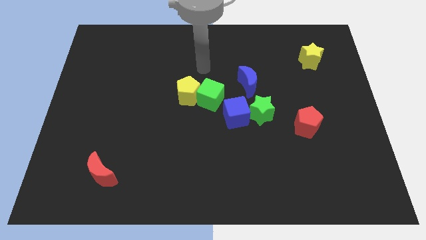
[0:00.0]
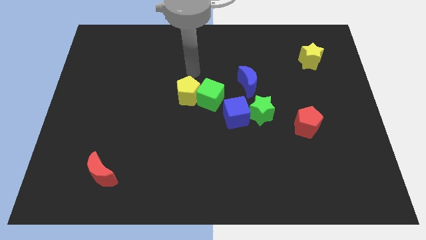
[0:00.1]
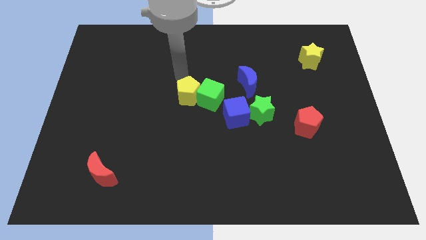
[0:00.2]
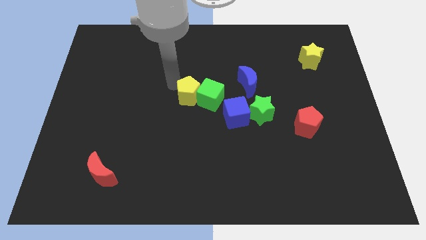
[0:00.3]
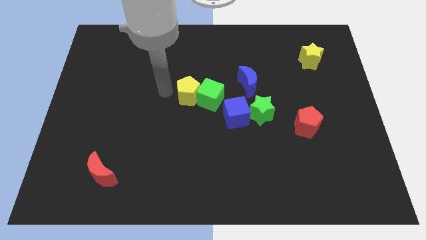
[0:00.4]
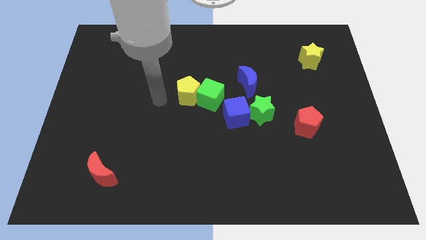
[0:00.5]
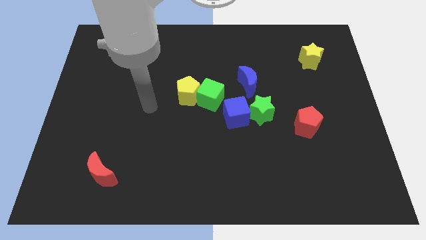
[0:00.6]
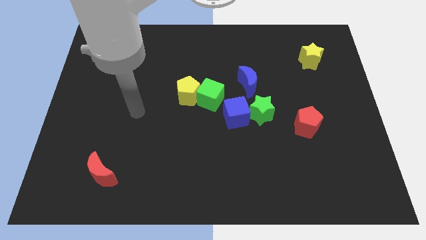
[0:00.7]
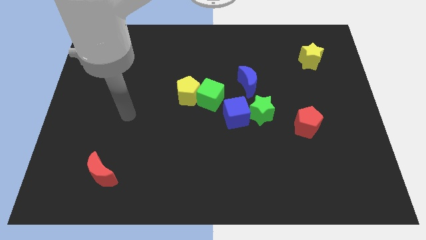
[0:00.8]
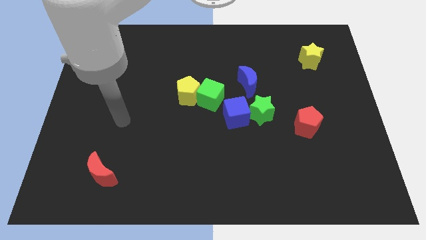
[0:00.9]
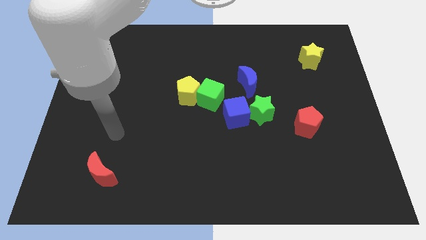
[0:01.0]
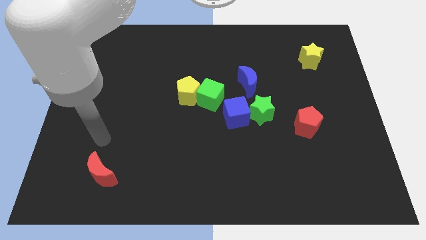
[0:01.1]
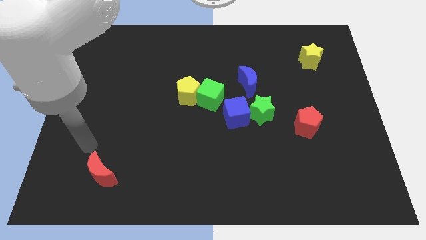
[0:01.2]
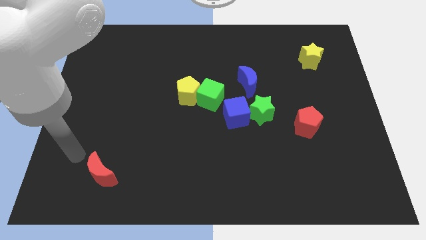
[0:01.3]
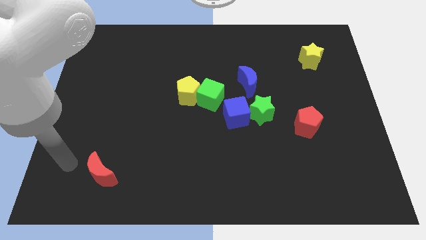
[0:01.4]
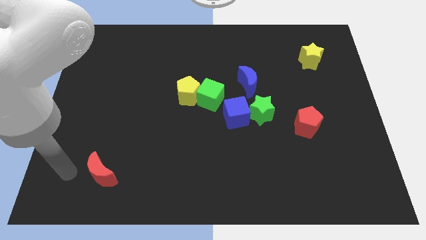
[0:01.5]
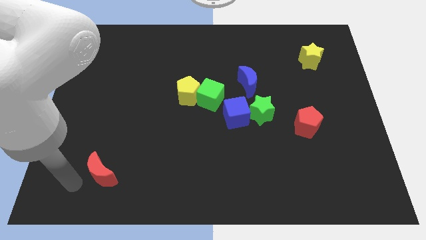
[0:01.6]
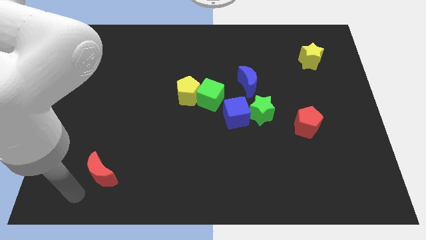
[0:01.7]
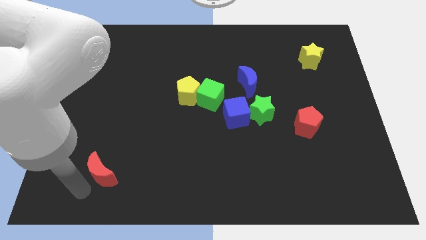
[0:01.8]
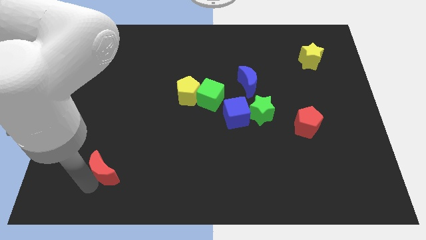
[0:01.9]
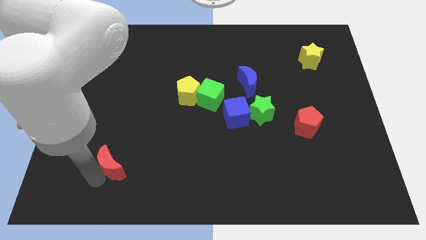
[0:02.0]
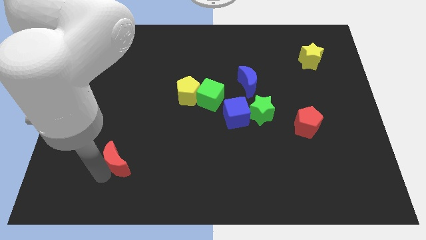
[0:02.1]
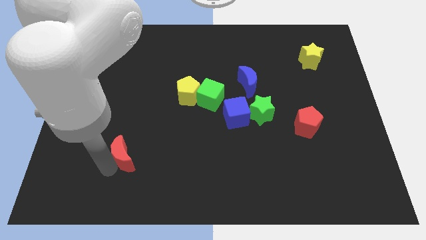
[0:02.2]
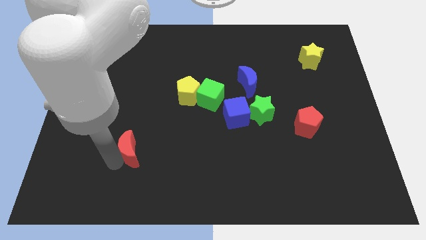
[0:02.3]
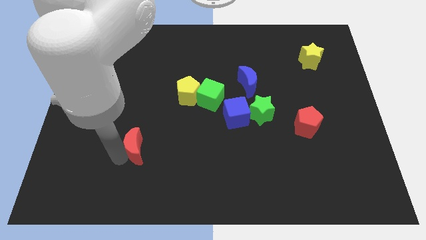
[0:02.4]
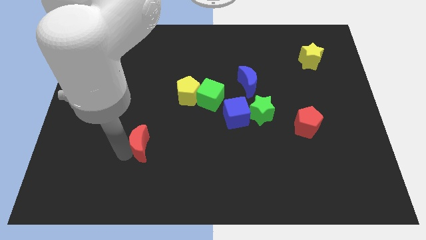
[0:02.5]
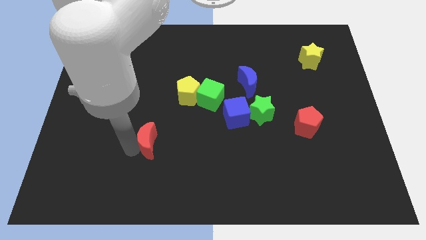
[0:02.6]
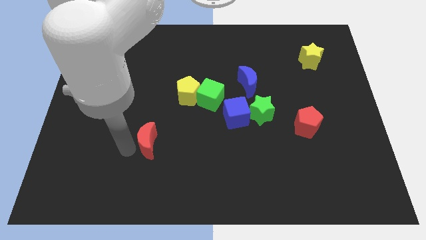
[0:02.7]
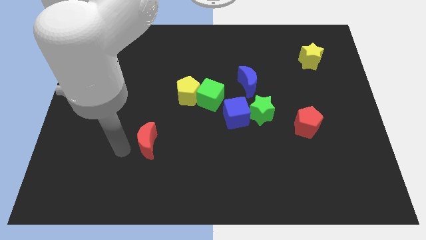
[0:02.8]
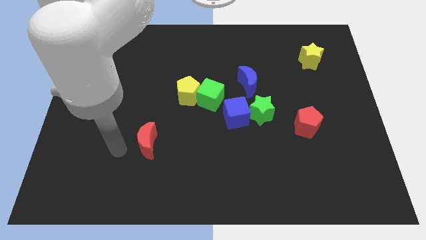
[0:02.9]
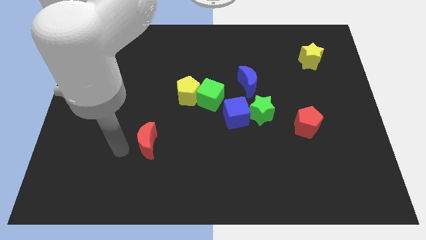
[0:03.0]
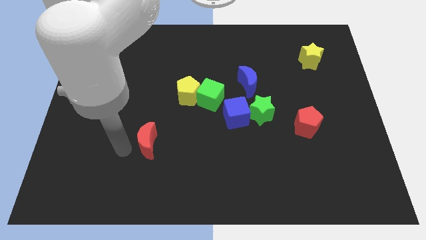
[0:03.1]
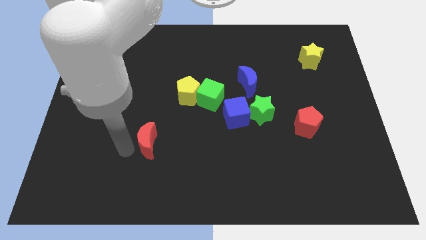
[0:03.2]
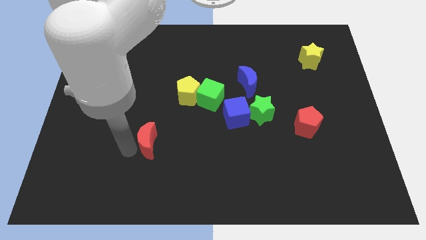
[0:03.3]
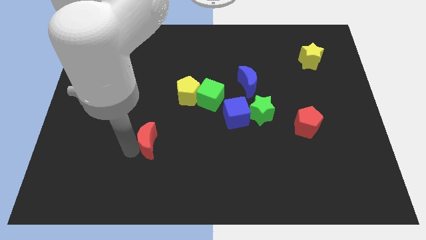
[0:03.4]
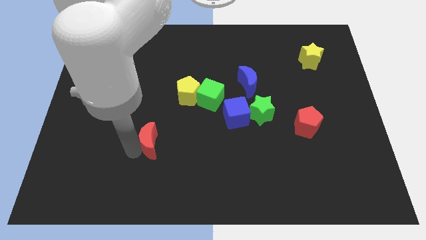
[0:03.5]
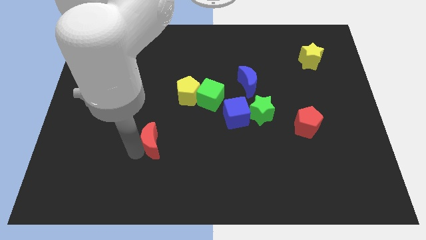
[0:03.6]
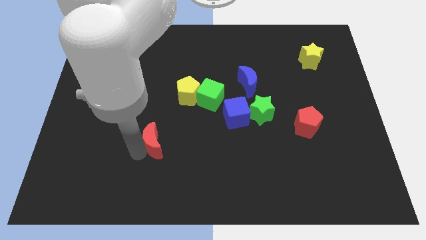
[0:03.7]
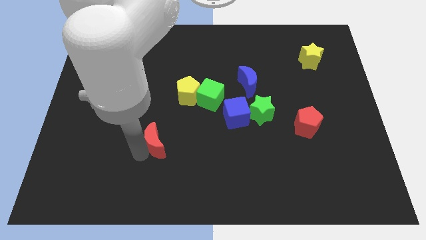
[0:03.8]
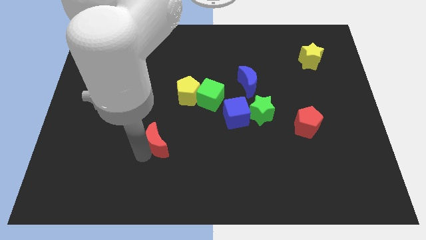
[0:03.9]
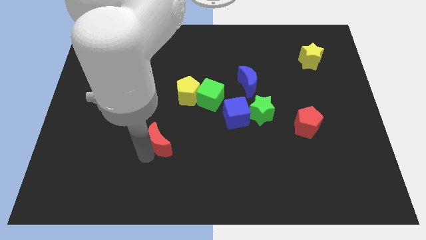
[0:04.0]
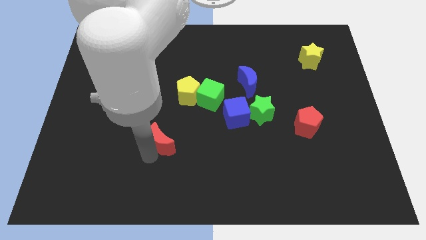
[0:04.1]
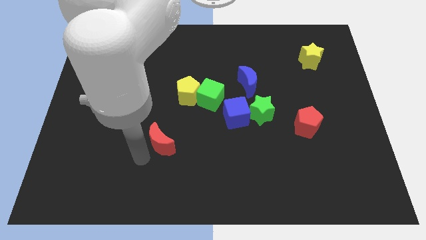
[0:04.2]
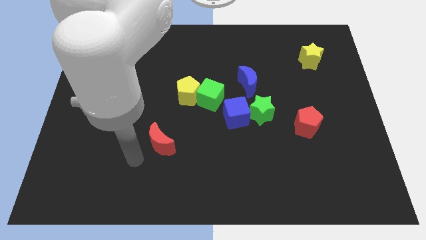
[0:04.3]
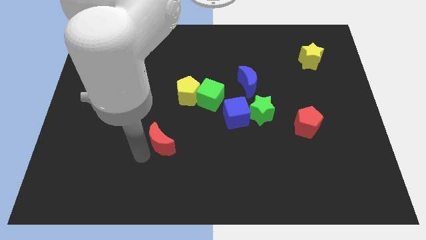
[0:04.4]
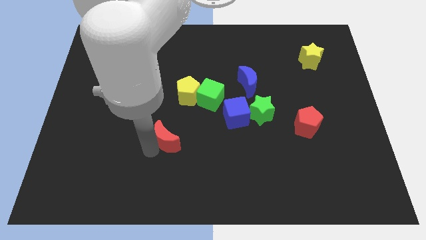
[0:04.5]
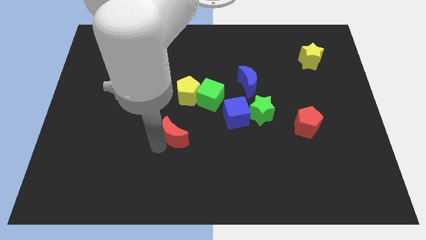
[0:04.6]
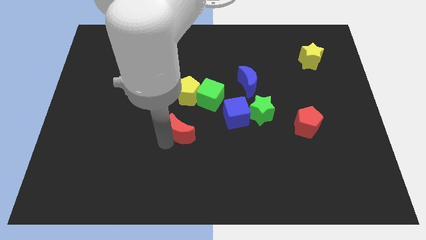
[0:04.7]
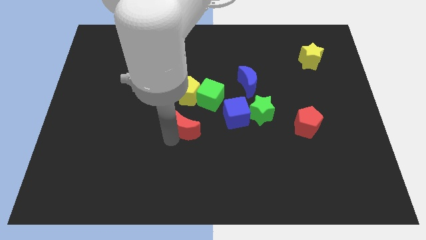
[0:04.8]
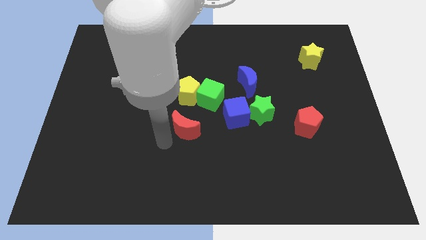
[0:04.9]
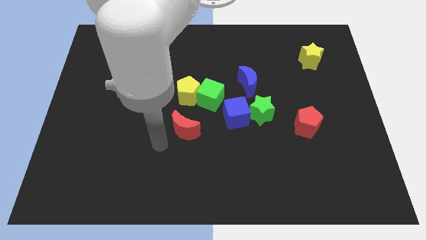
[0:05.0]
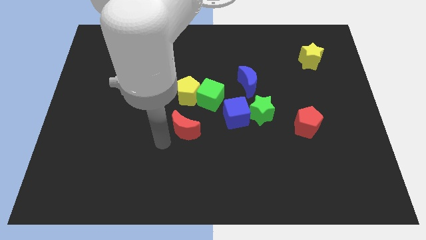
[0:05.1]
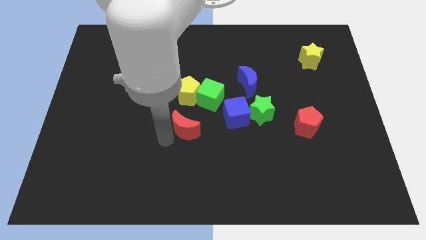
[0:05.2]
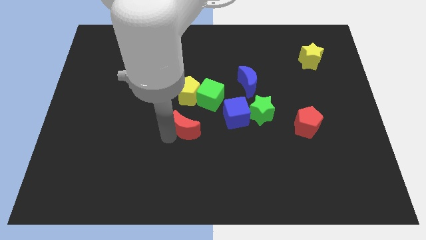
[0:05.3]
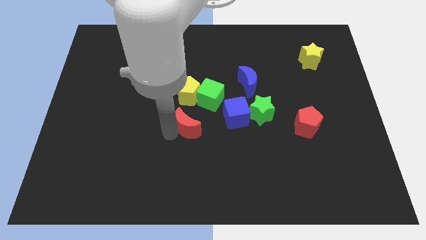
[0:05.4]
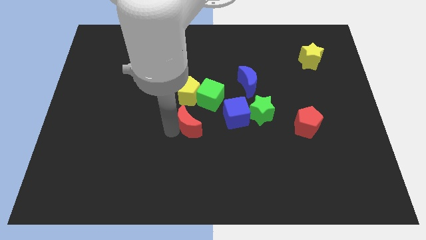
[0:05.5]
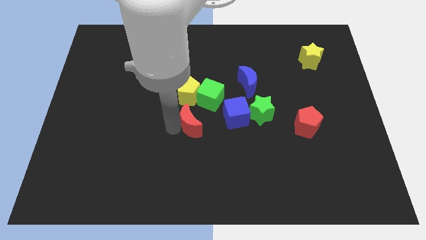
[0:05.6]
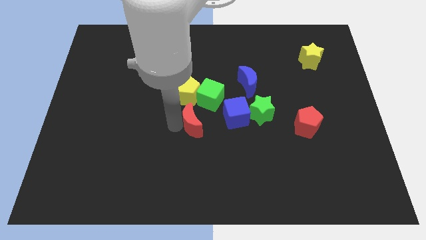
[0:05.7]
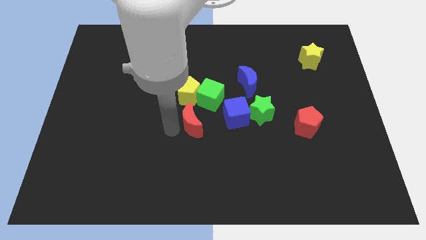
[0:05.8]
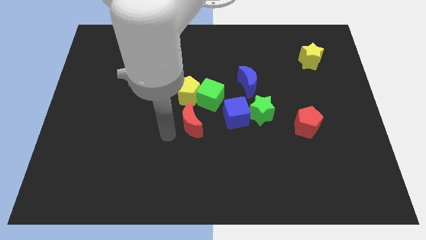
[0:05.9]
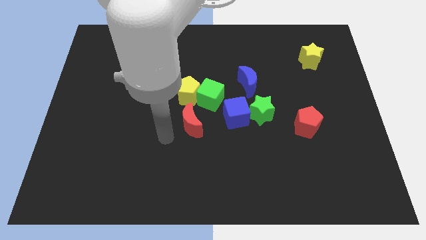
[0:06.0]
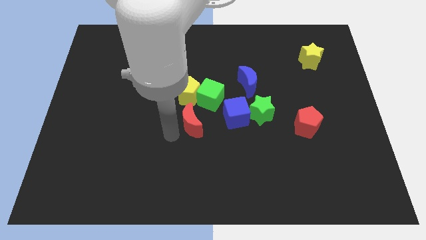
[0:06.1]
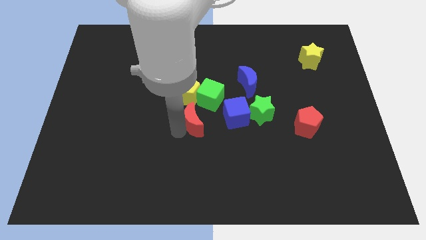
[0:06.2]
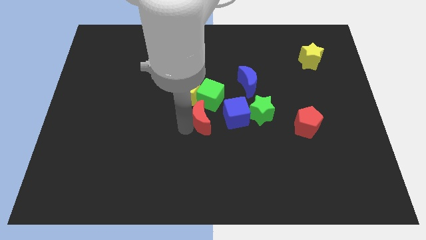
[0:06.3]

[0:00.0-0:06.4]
move the red moon left of the green star

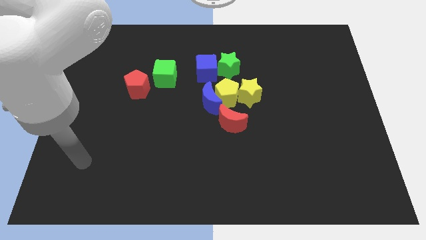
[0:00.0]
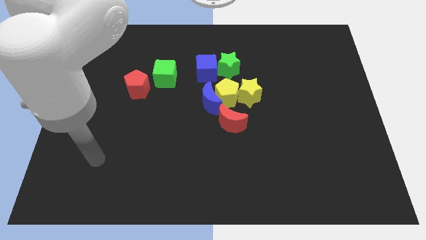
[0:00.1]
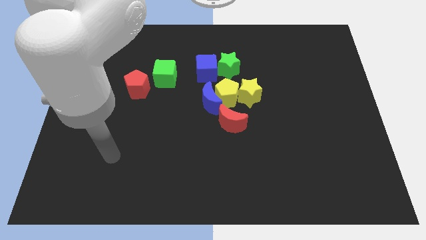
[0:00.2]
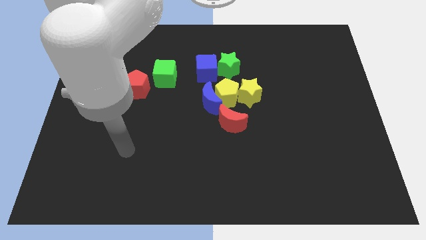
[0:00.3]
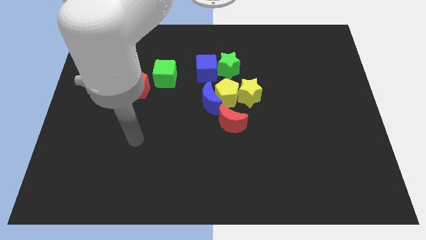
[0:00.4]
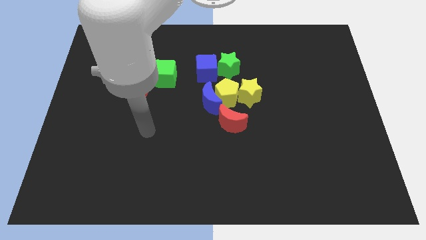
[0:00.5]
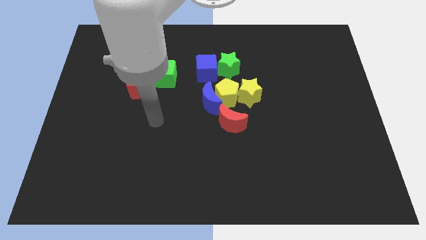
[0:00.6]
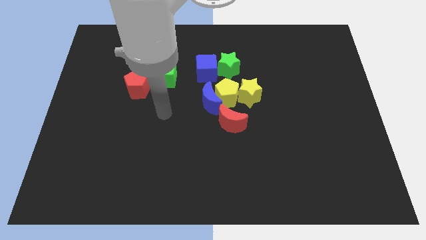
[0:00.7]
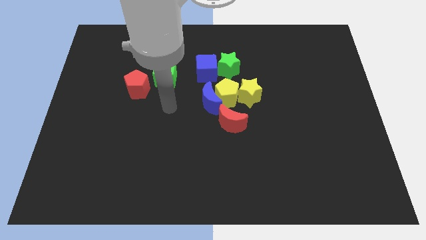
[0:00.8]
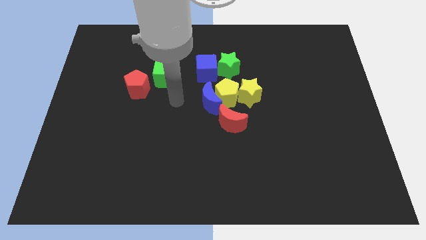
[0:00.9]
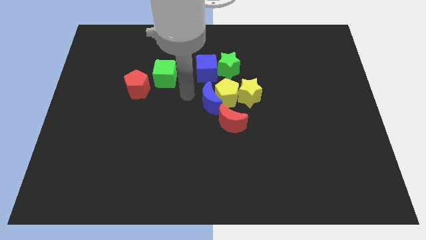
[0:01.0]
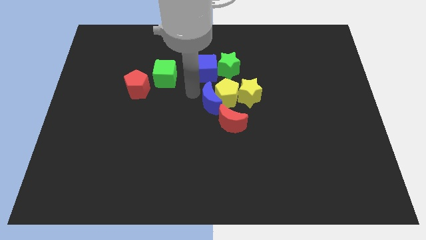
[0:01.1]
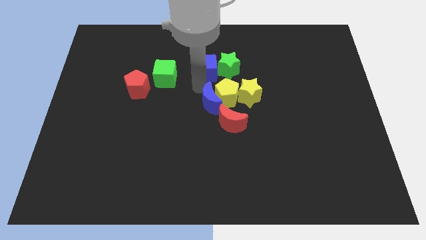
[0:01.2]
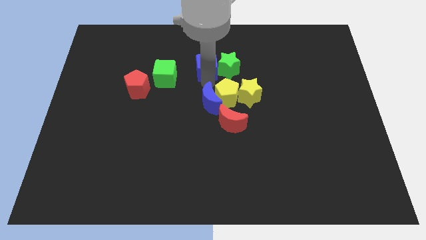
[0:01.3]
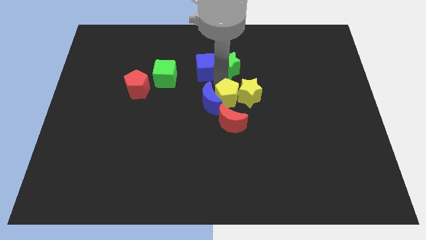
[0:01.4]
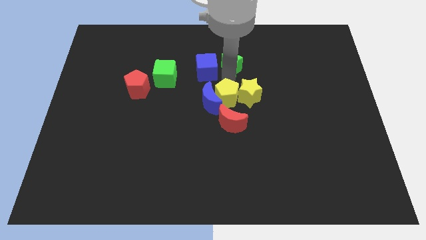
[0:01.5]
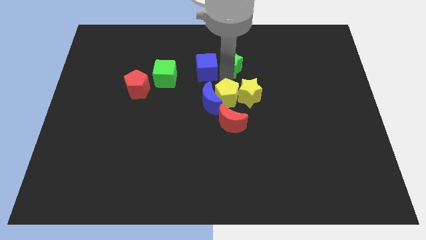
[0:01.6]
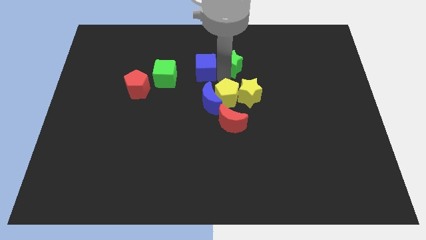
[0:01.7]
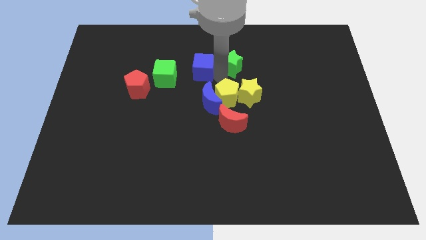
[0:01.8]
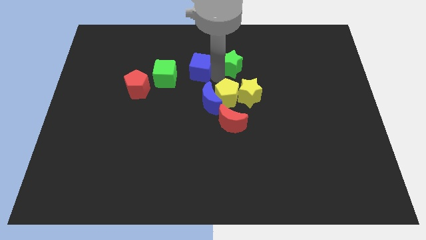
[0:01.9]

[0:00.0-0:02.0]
move the blue cube diagonally up and to the right of the green cube
